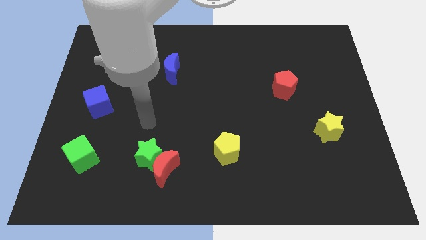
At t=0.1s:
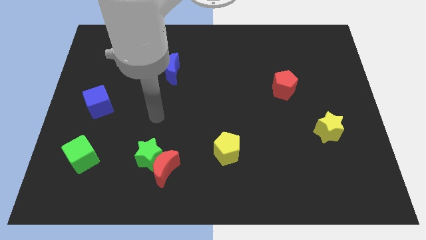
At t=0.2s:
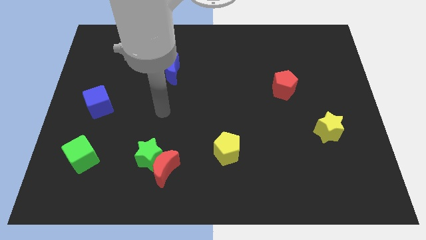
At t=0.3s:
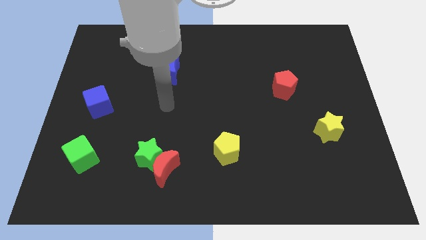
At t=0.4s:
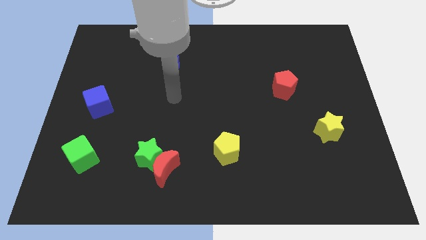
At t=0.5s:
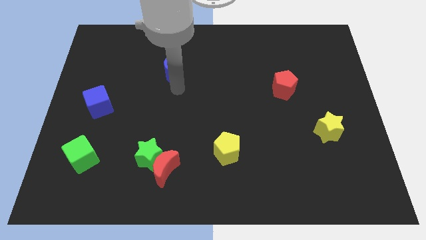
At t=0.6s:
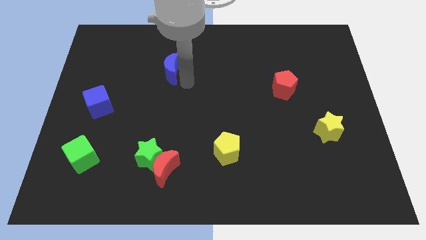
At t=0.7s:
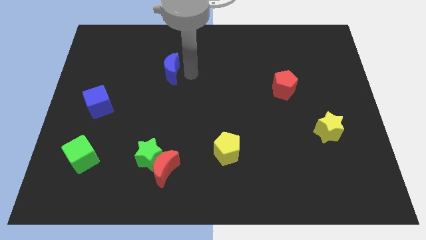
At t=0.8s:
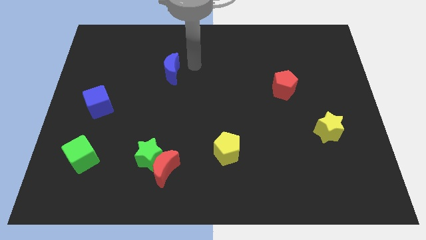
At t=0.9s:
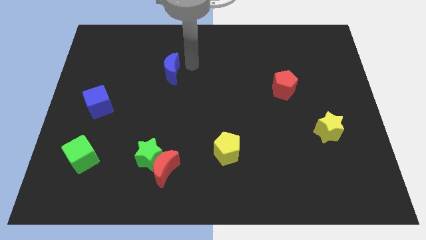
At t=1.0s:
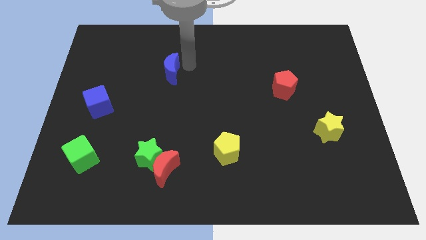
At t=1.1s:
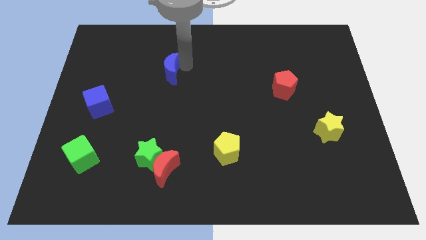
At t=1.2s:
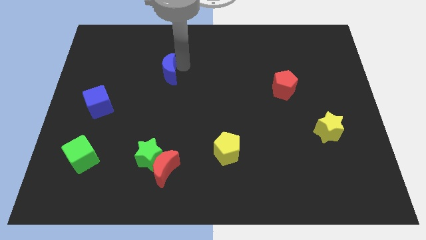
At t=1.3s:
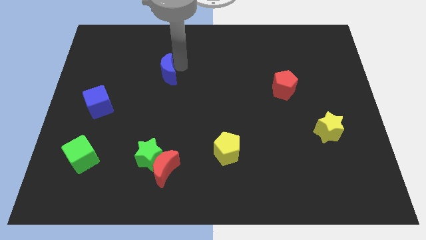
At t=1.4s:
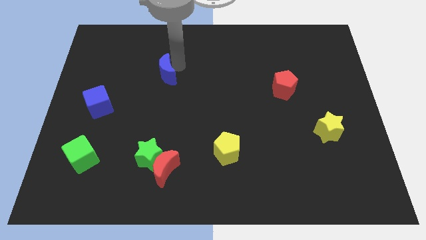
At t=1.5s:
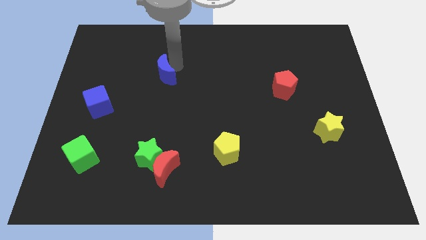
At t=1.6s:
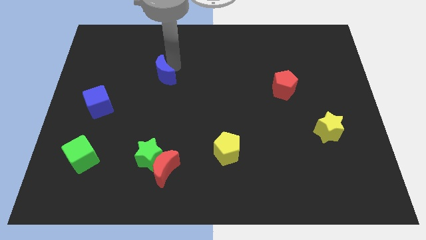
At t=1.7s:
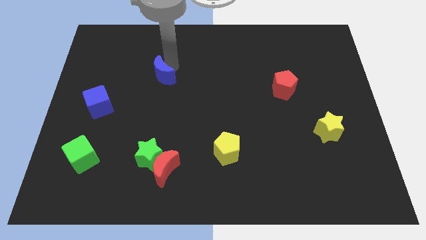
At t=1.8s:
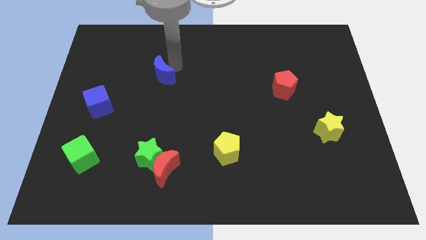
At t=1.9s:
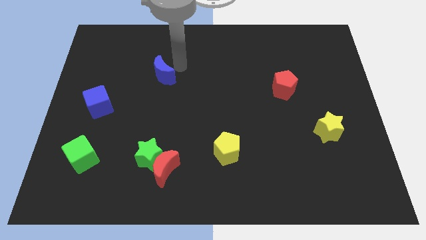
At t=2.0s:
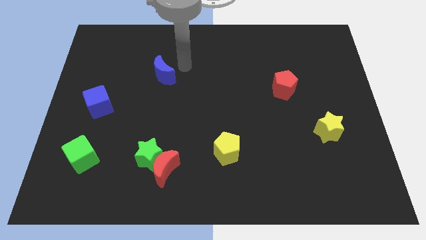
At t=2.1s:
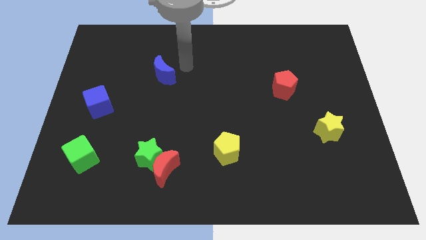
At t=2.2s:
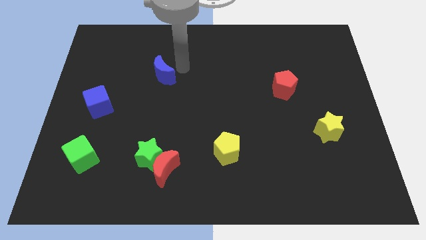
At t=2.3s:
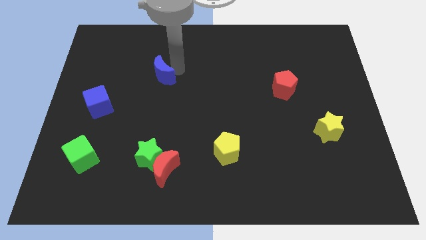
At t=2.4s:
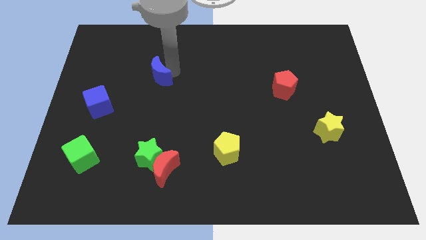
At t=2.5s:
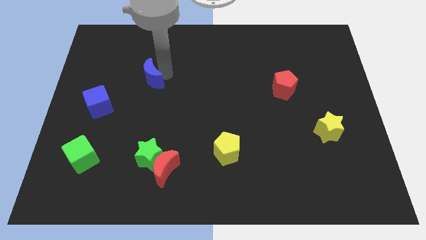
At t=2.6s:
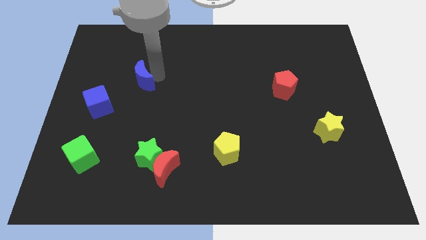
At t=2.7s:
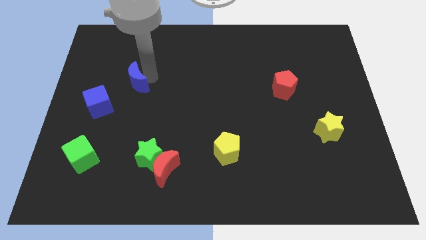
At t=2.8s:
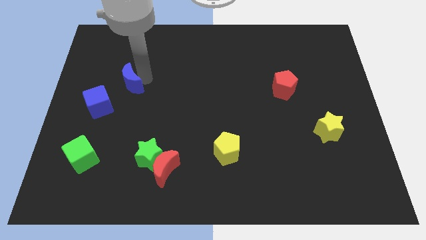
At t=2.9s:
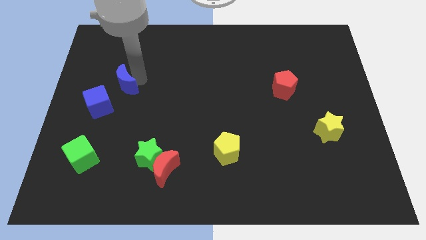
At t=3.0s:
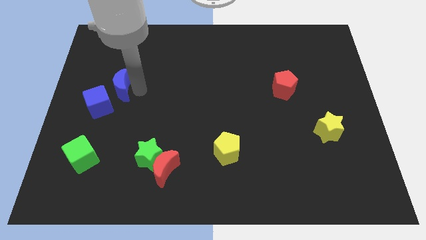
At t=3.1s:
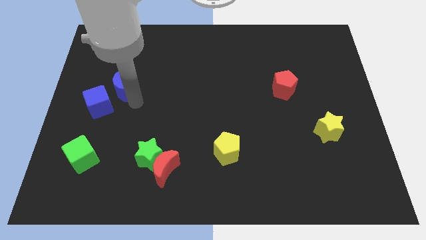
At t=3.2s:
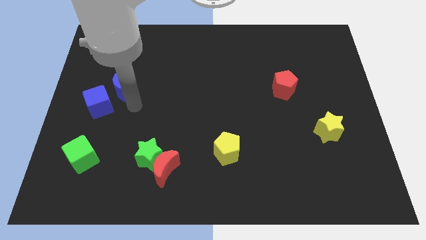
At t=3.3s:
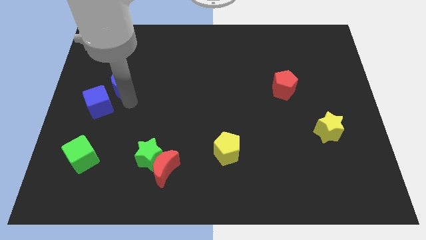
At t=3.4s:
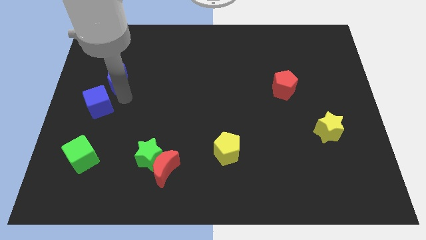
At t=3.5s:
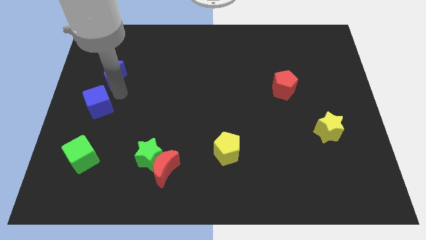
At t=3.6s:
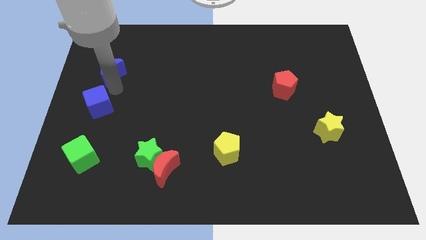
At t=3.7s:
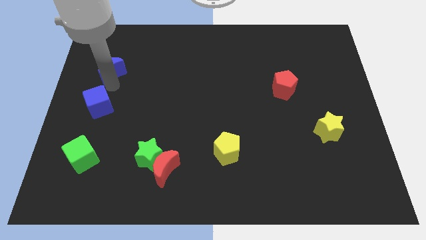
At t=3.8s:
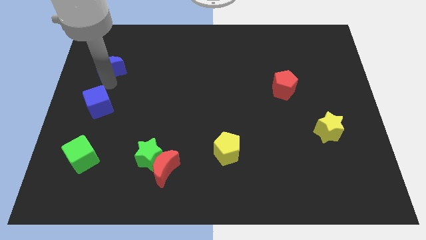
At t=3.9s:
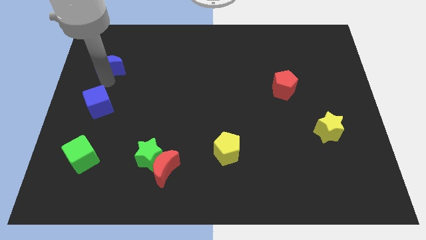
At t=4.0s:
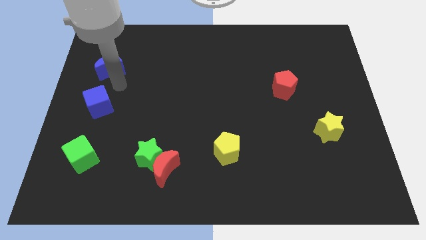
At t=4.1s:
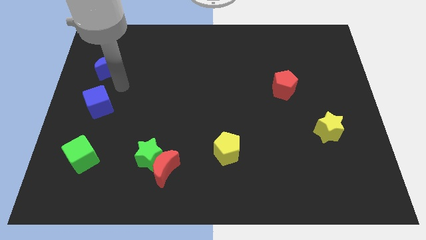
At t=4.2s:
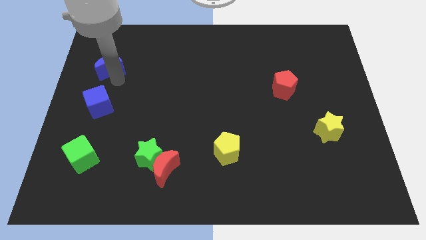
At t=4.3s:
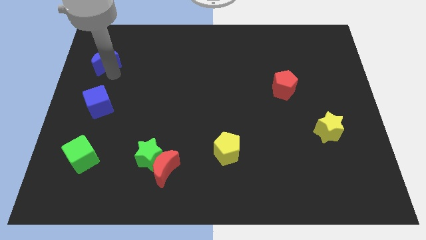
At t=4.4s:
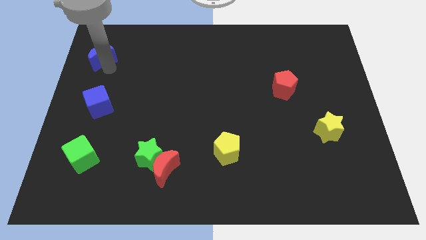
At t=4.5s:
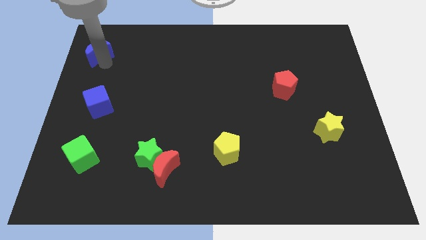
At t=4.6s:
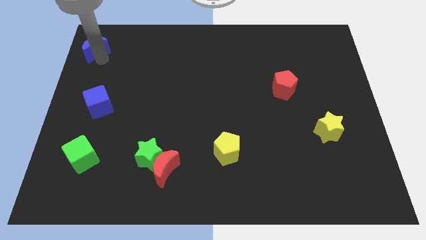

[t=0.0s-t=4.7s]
push the blue moon to the upper left corner

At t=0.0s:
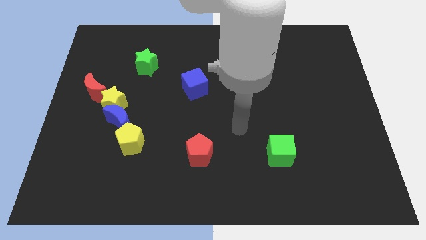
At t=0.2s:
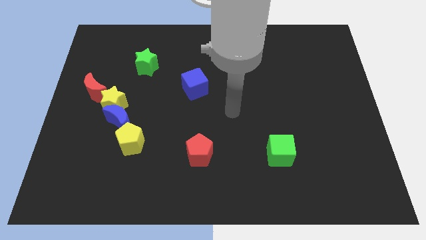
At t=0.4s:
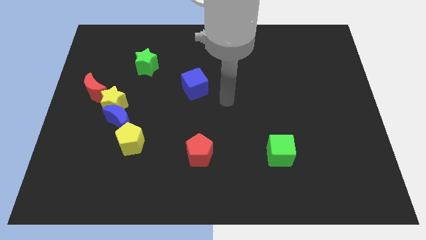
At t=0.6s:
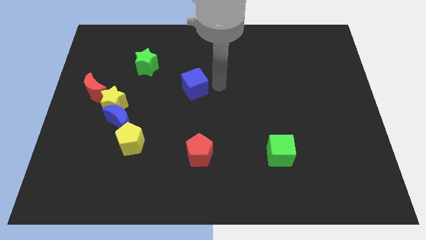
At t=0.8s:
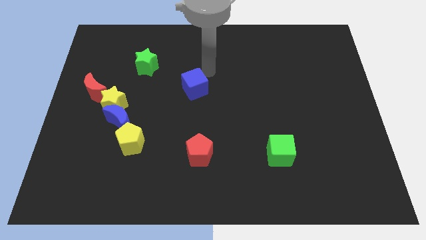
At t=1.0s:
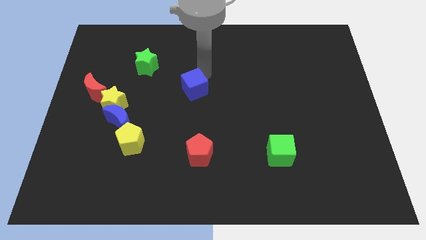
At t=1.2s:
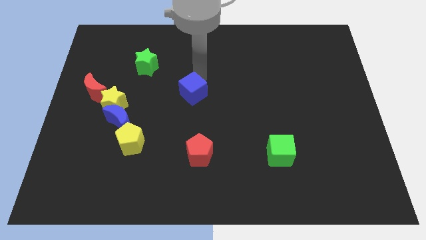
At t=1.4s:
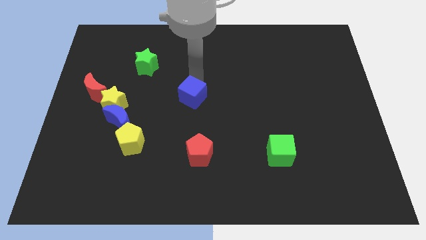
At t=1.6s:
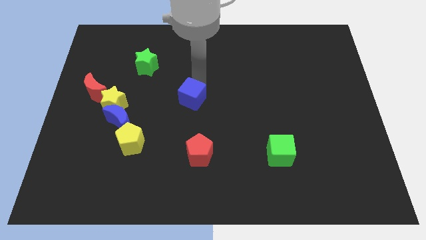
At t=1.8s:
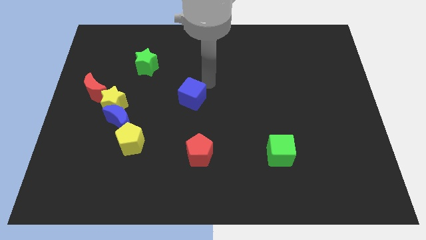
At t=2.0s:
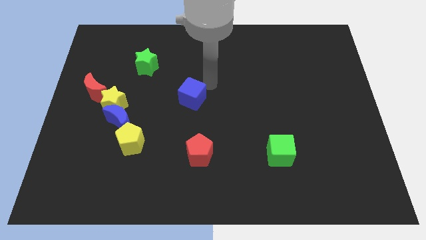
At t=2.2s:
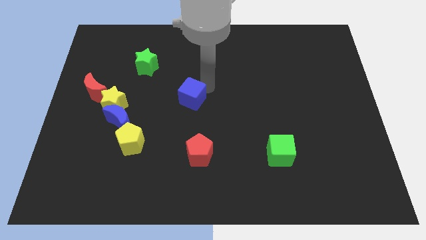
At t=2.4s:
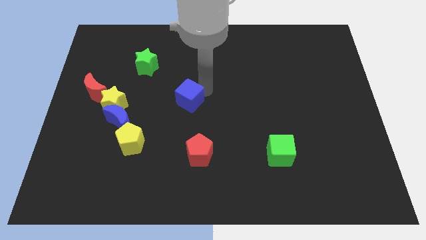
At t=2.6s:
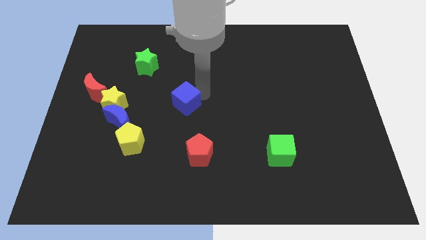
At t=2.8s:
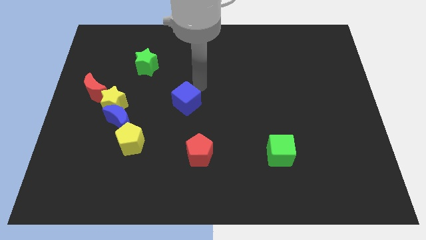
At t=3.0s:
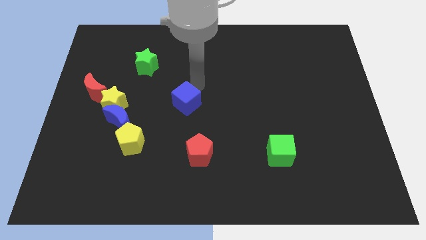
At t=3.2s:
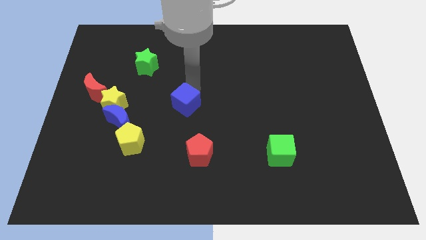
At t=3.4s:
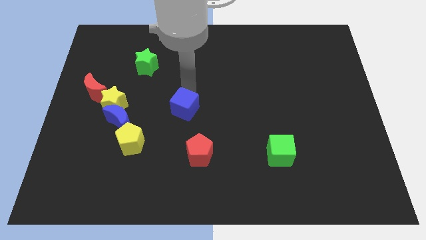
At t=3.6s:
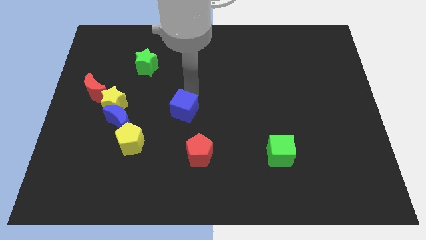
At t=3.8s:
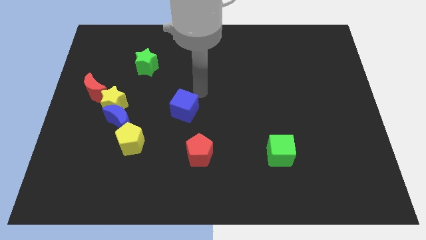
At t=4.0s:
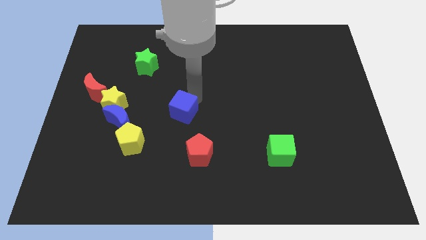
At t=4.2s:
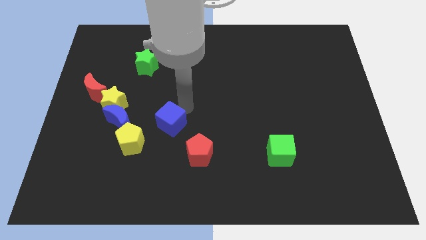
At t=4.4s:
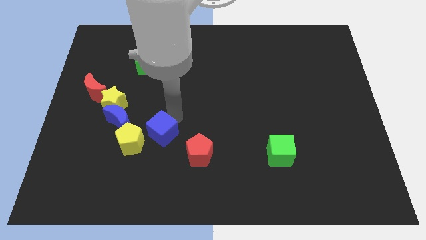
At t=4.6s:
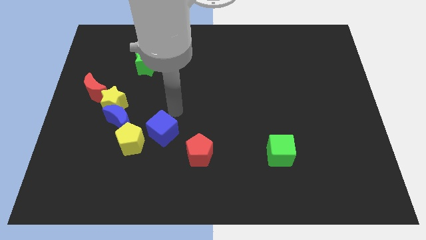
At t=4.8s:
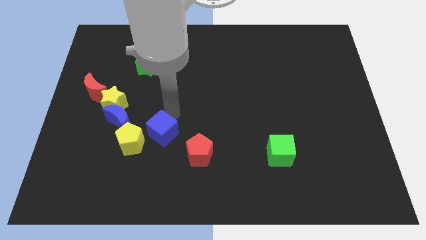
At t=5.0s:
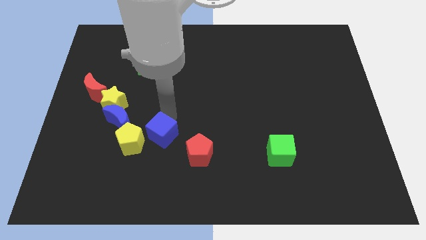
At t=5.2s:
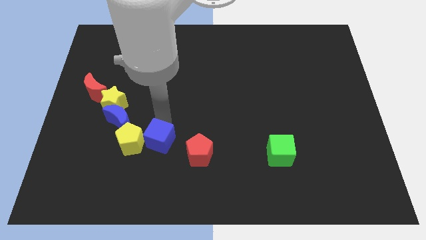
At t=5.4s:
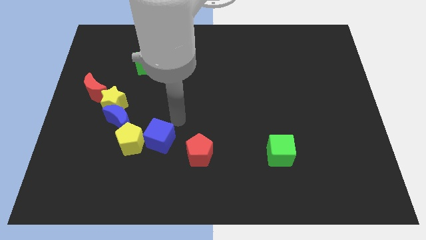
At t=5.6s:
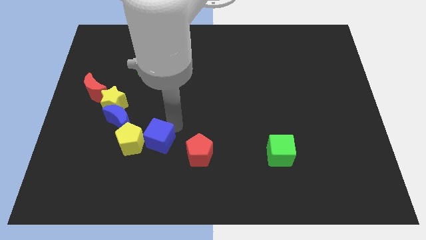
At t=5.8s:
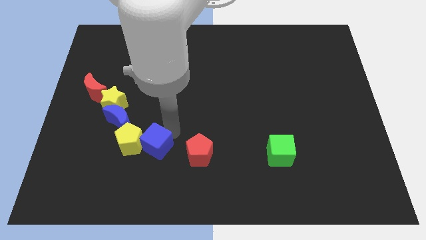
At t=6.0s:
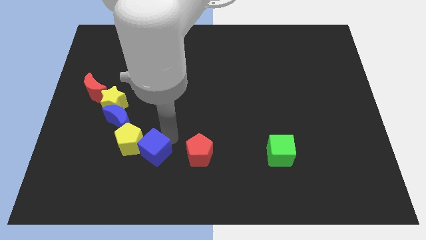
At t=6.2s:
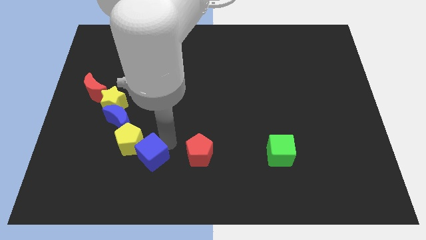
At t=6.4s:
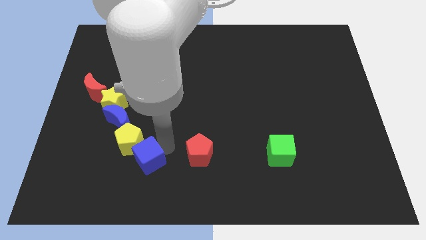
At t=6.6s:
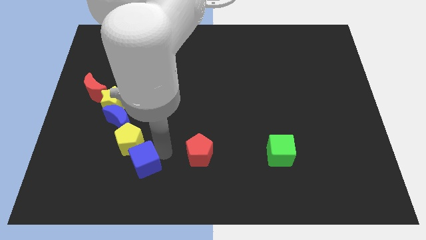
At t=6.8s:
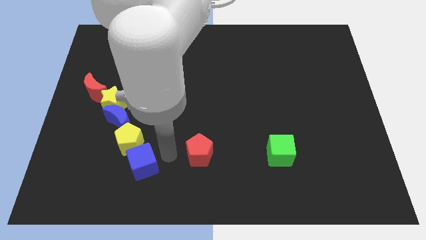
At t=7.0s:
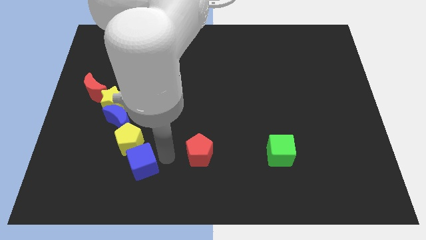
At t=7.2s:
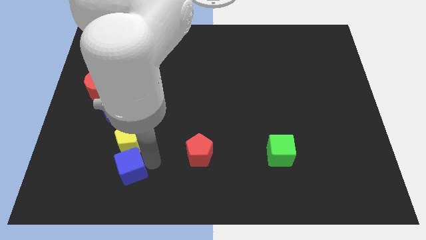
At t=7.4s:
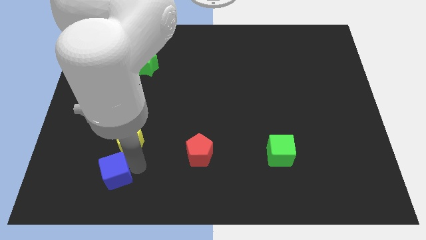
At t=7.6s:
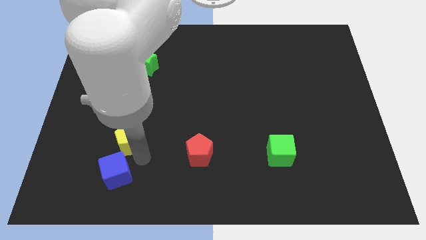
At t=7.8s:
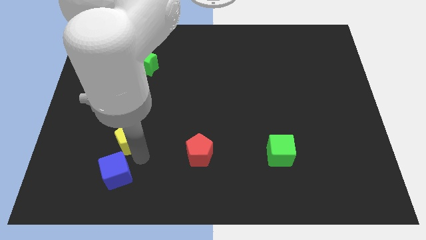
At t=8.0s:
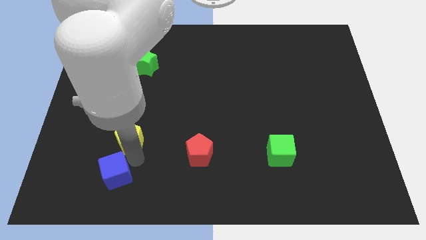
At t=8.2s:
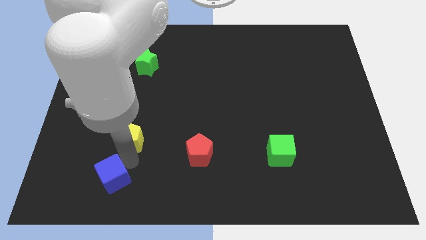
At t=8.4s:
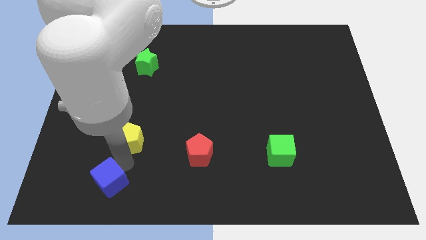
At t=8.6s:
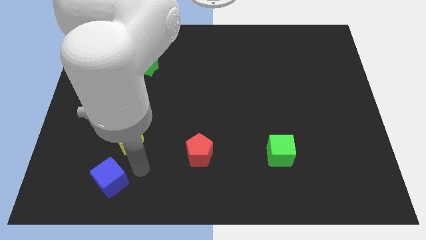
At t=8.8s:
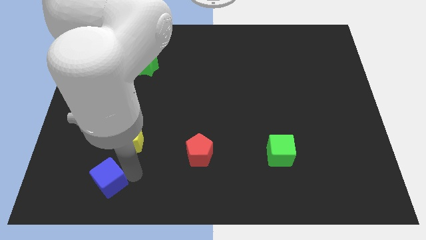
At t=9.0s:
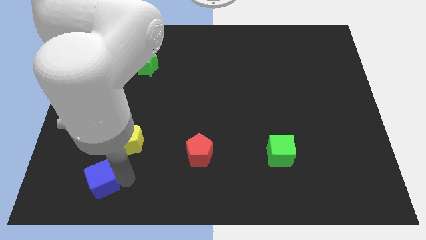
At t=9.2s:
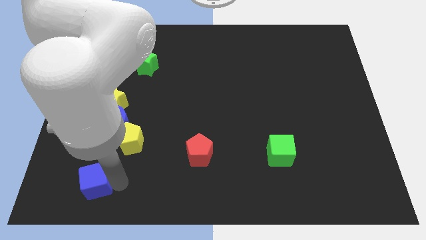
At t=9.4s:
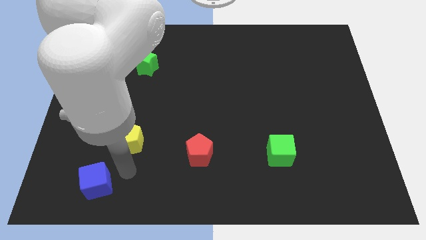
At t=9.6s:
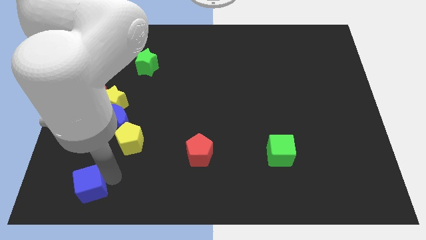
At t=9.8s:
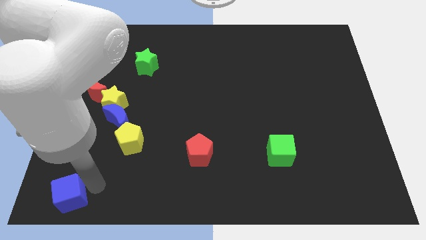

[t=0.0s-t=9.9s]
slide the blue cube to the bottom left
